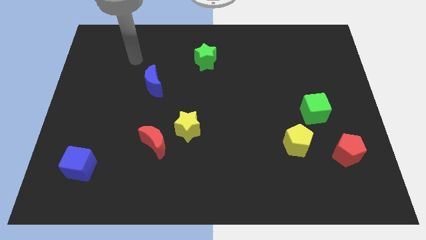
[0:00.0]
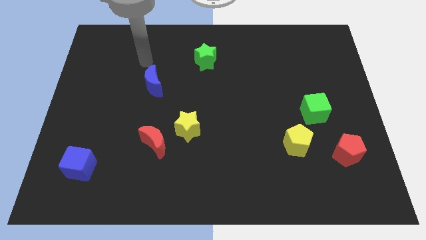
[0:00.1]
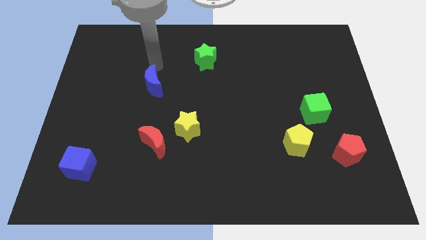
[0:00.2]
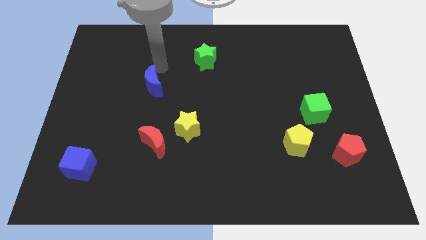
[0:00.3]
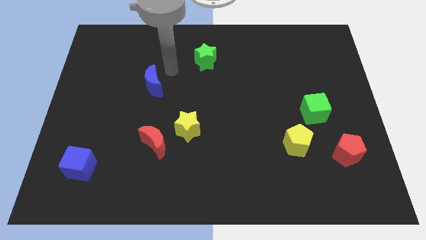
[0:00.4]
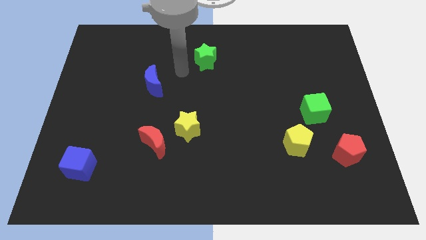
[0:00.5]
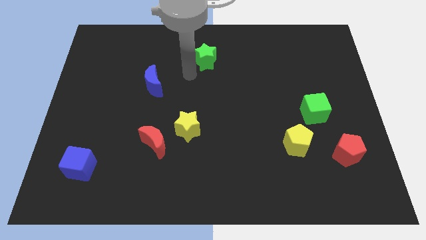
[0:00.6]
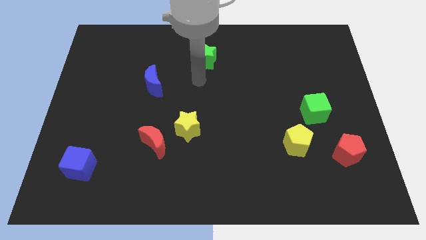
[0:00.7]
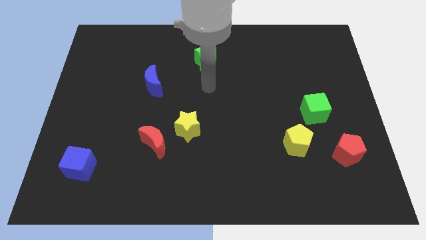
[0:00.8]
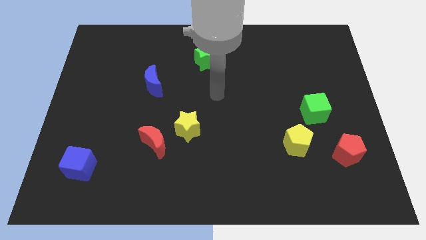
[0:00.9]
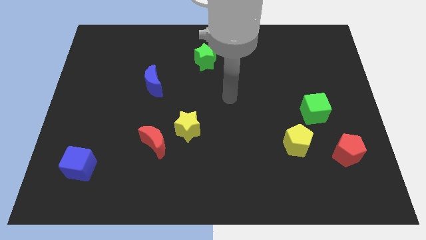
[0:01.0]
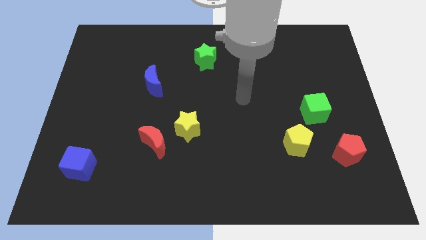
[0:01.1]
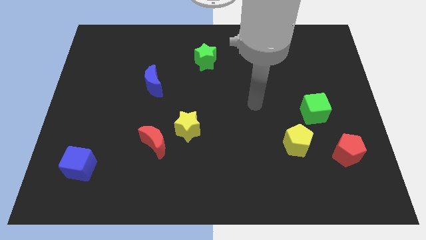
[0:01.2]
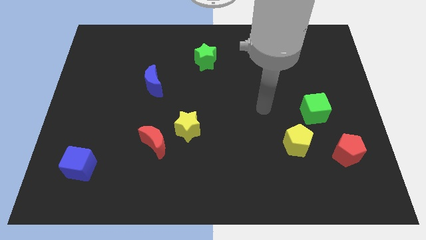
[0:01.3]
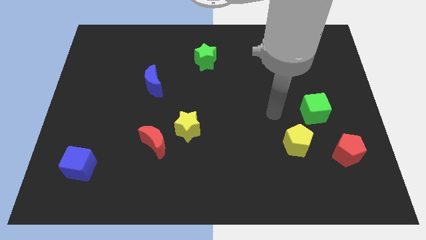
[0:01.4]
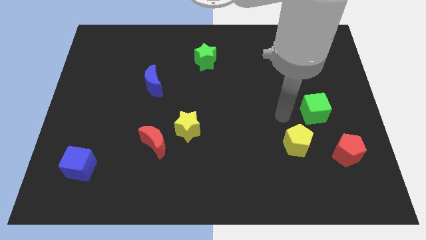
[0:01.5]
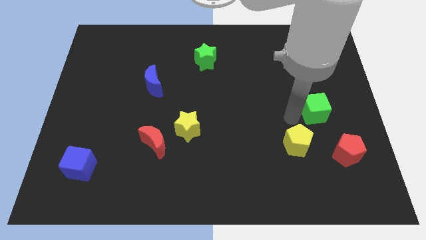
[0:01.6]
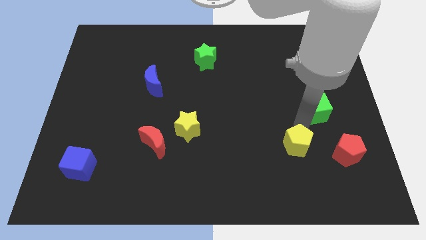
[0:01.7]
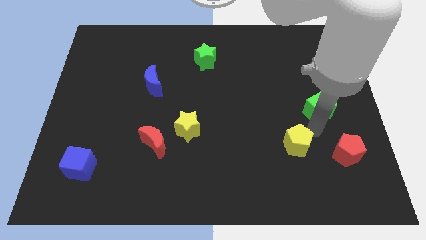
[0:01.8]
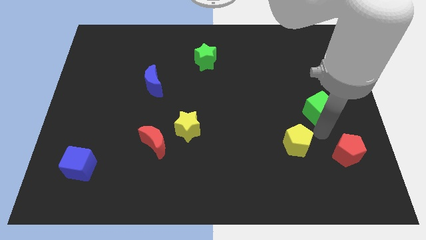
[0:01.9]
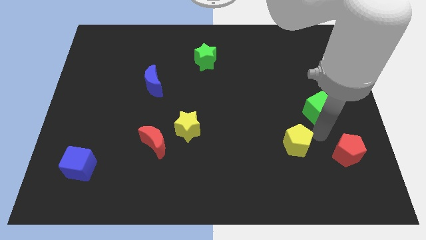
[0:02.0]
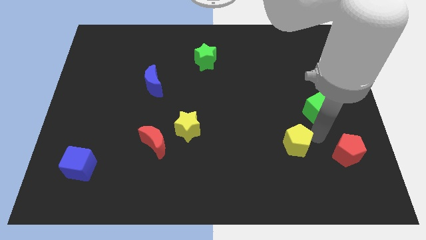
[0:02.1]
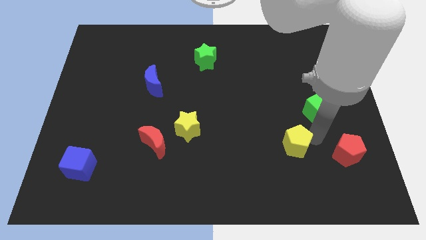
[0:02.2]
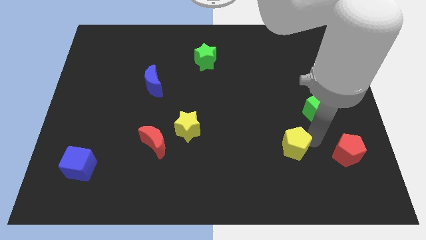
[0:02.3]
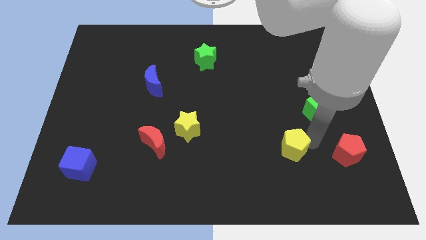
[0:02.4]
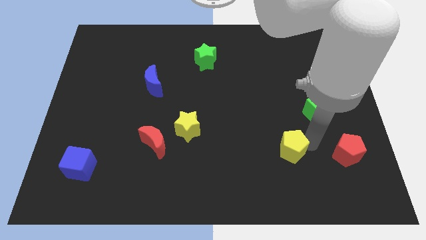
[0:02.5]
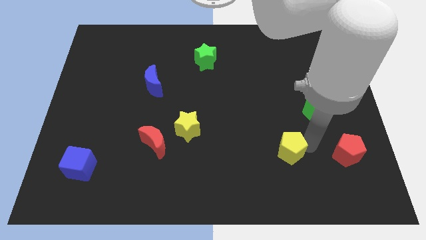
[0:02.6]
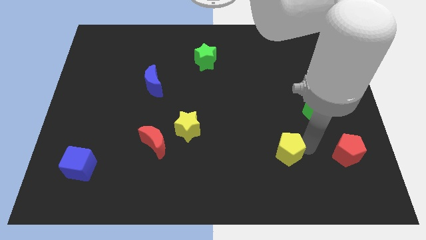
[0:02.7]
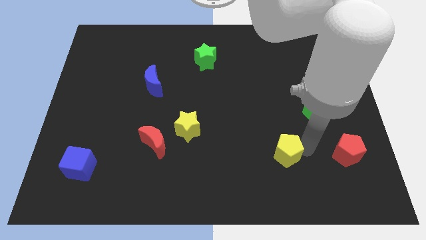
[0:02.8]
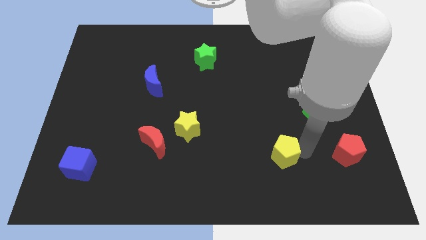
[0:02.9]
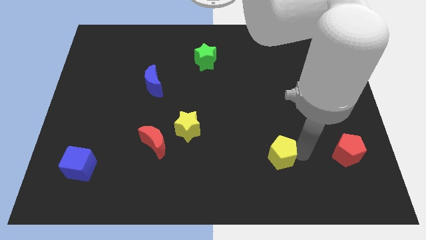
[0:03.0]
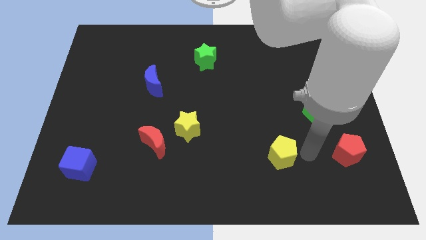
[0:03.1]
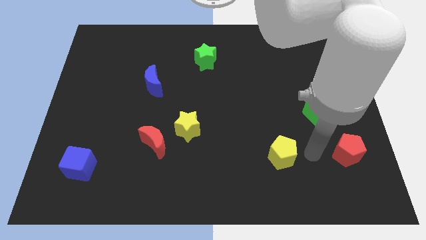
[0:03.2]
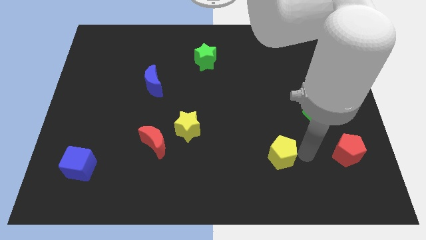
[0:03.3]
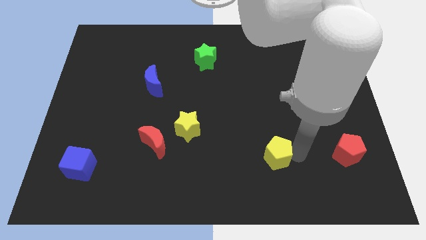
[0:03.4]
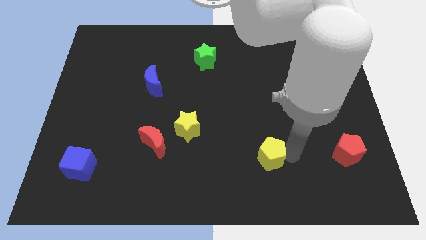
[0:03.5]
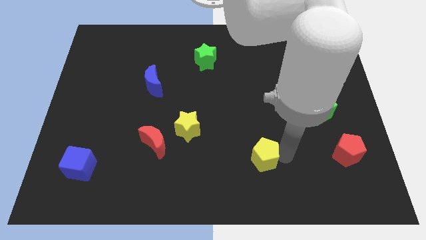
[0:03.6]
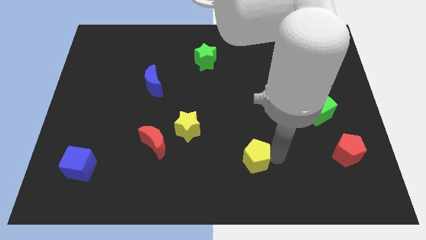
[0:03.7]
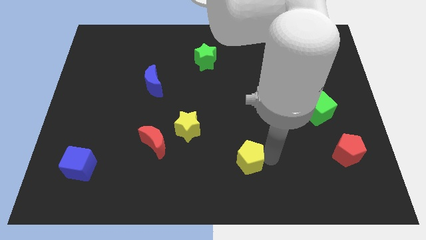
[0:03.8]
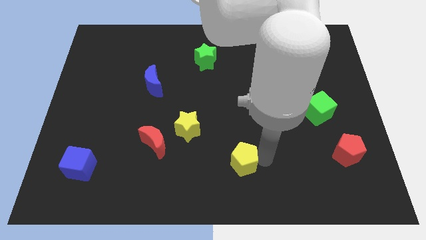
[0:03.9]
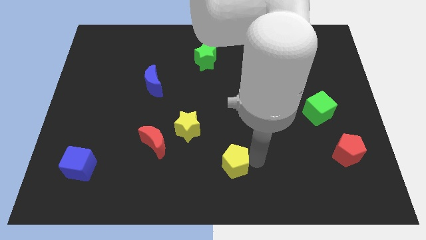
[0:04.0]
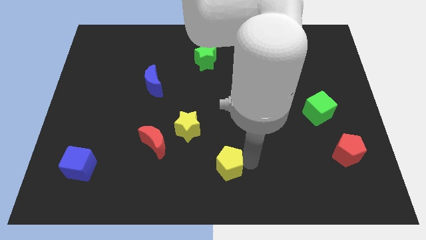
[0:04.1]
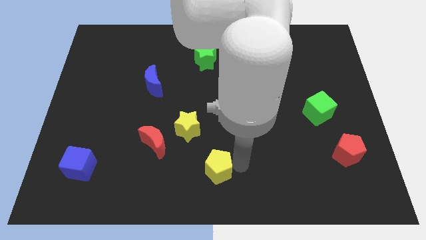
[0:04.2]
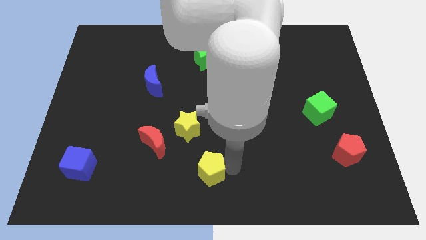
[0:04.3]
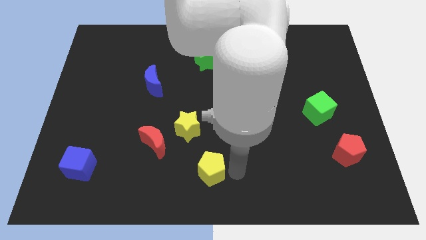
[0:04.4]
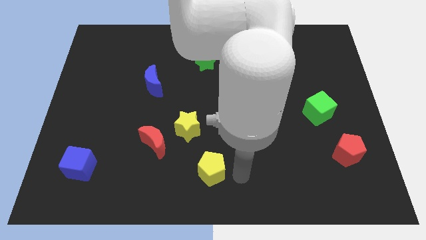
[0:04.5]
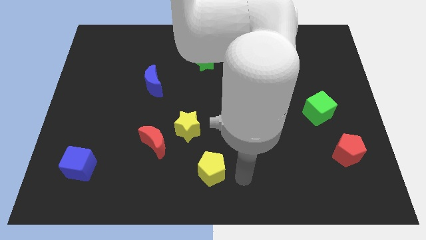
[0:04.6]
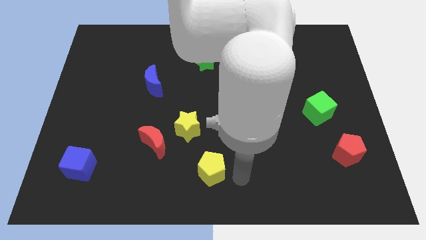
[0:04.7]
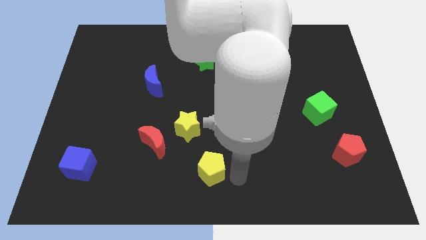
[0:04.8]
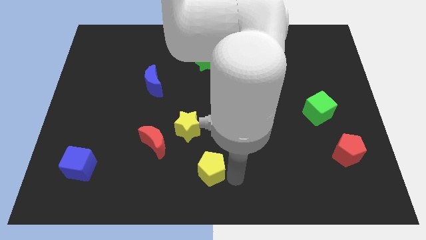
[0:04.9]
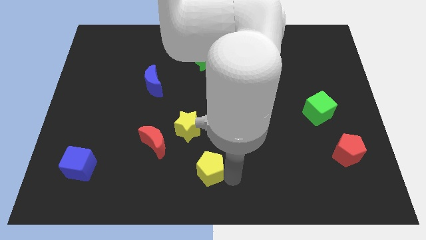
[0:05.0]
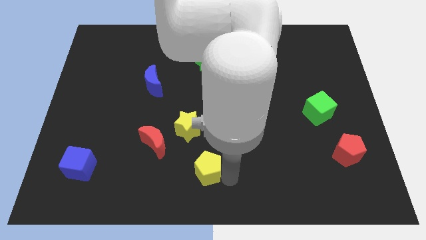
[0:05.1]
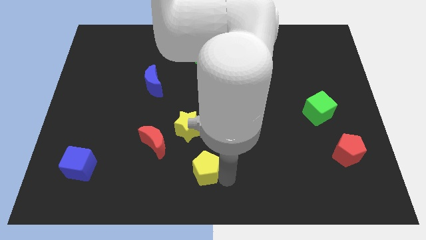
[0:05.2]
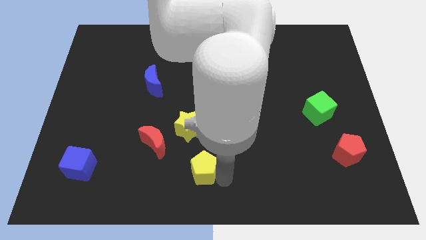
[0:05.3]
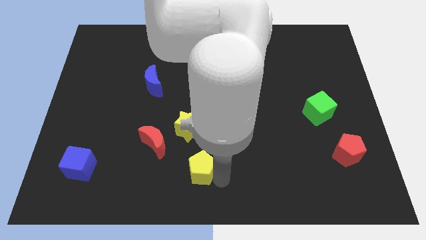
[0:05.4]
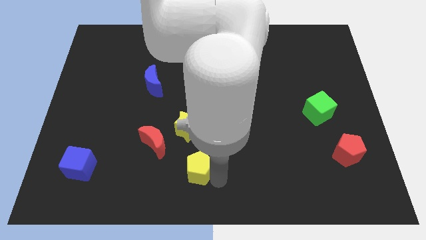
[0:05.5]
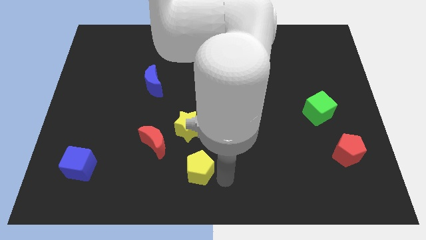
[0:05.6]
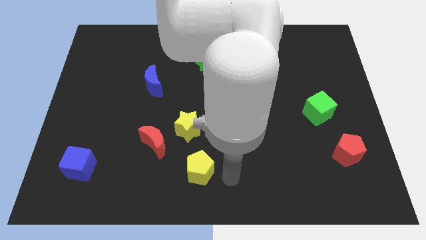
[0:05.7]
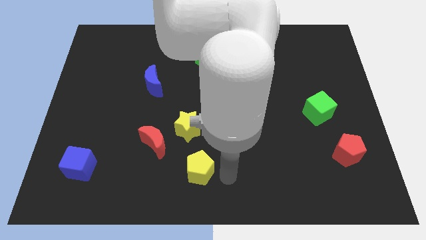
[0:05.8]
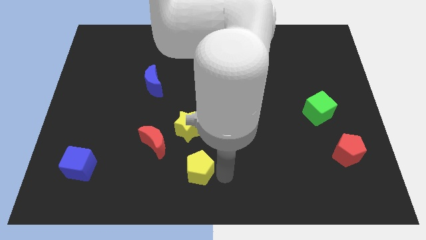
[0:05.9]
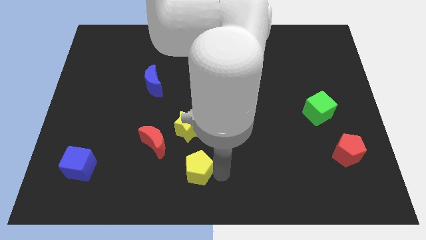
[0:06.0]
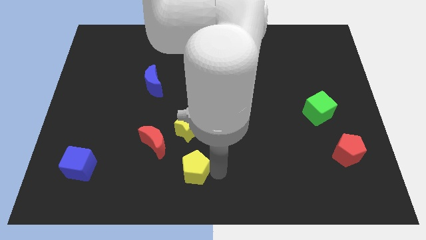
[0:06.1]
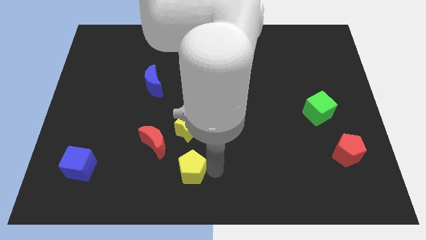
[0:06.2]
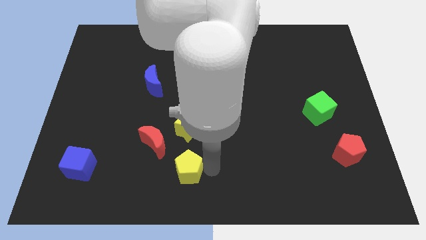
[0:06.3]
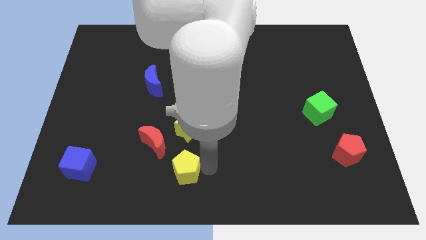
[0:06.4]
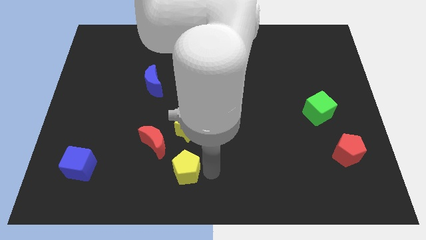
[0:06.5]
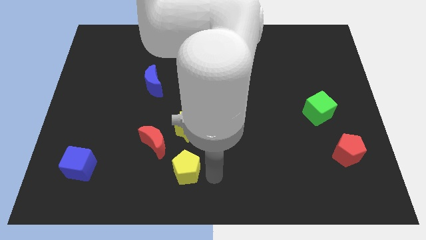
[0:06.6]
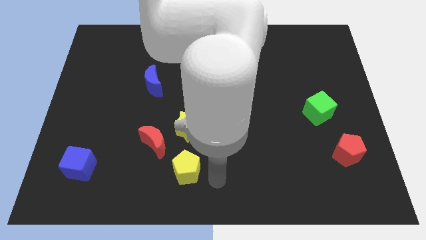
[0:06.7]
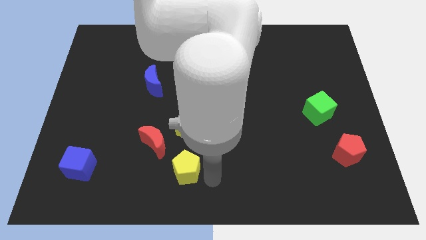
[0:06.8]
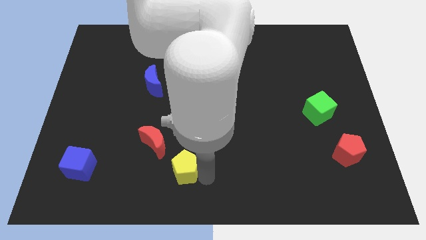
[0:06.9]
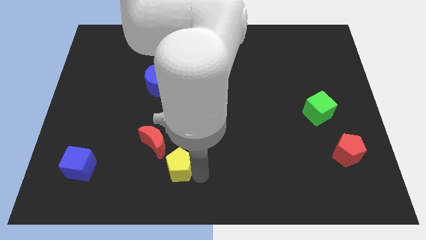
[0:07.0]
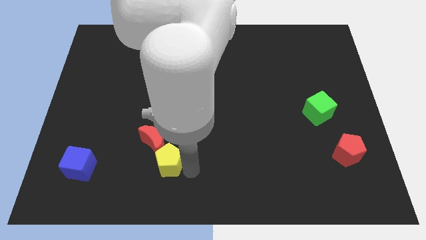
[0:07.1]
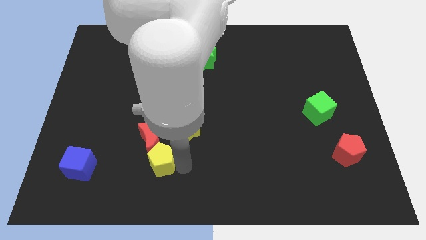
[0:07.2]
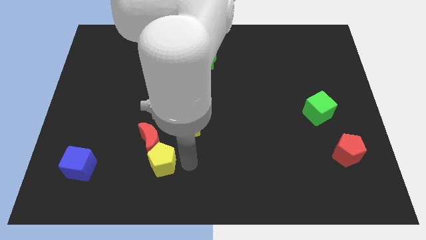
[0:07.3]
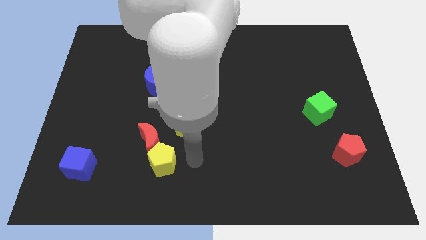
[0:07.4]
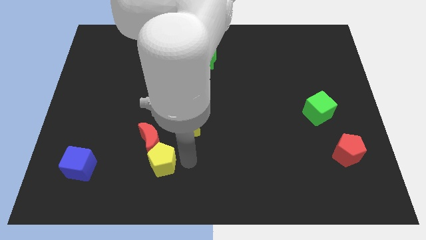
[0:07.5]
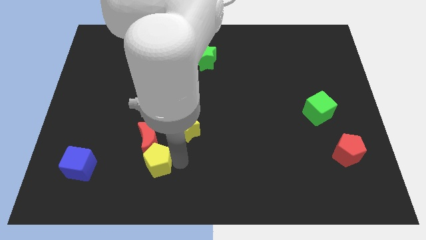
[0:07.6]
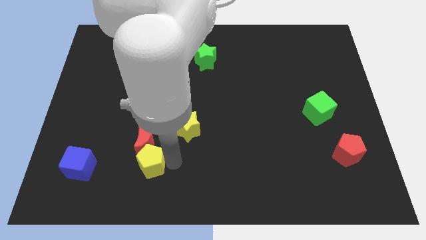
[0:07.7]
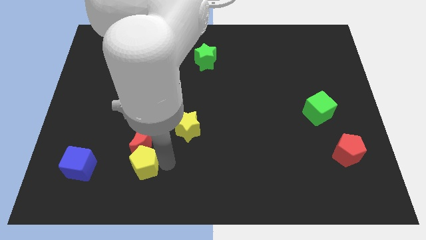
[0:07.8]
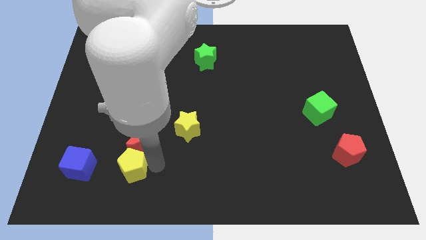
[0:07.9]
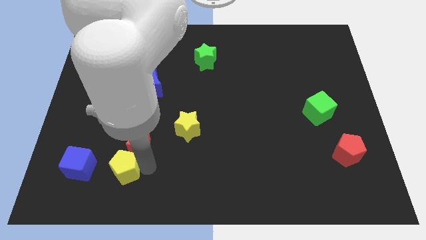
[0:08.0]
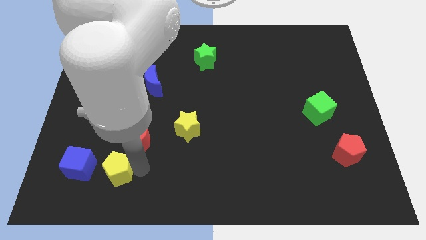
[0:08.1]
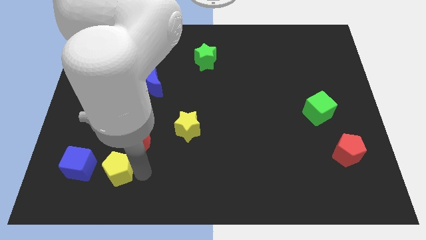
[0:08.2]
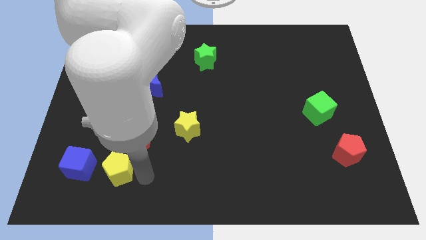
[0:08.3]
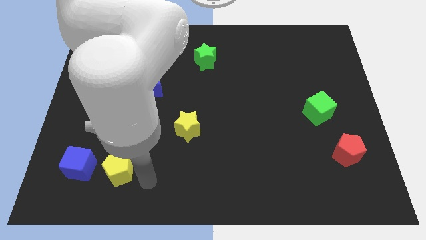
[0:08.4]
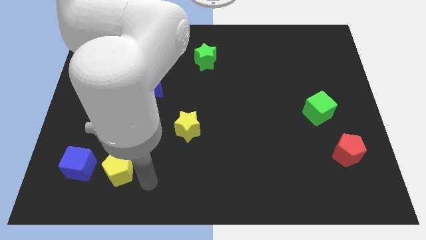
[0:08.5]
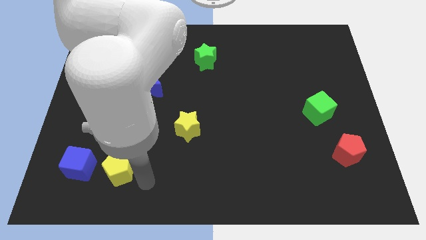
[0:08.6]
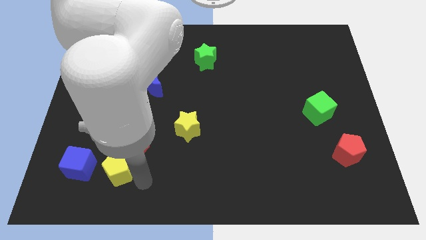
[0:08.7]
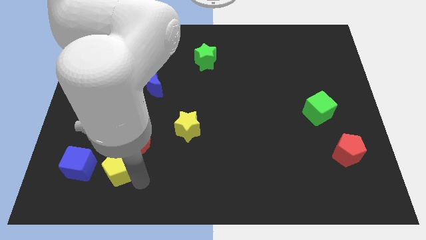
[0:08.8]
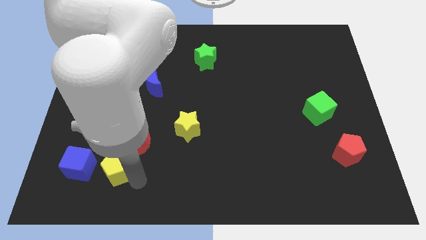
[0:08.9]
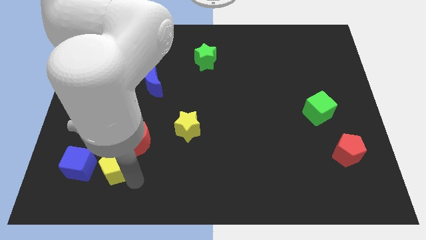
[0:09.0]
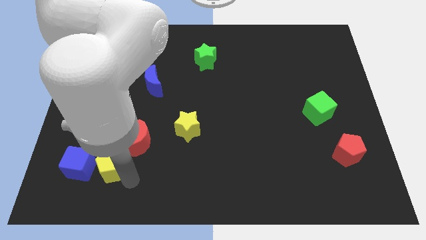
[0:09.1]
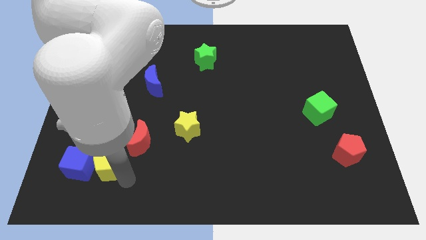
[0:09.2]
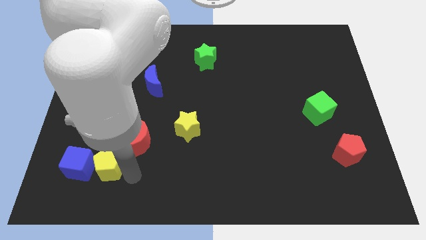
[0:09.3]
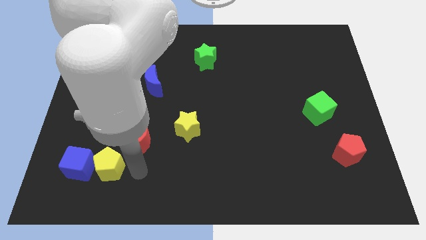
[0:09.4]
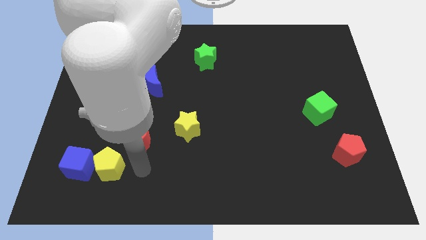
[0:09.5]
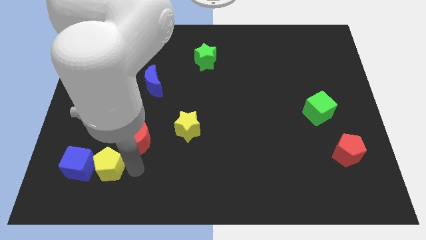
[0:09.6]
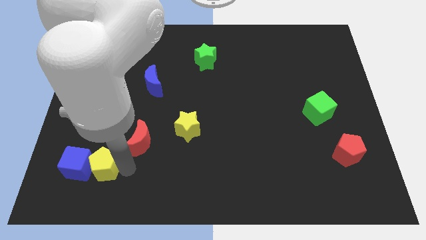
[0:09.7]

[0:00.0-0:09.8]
push the yellow pentagon towards the blue cube
